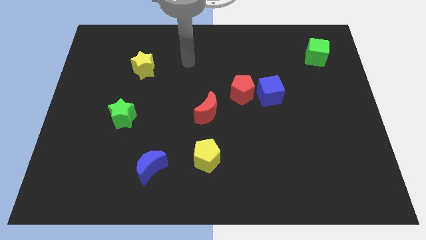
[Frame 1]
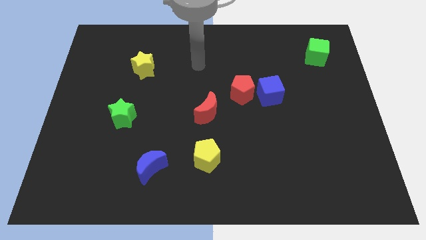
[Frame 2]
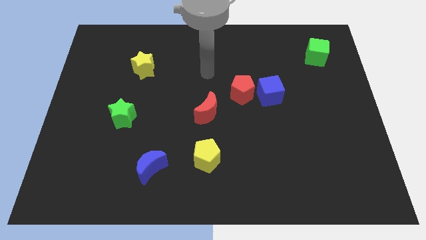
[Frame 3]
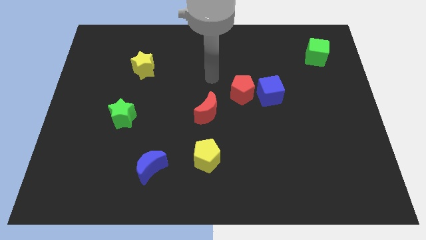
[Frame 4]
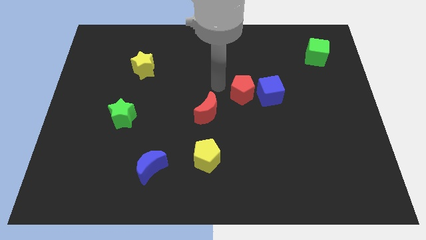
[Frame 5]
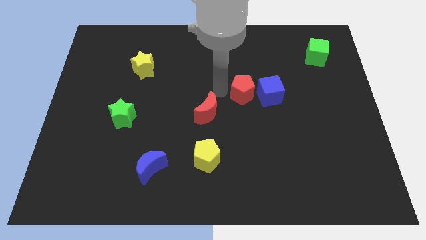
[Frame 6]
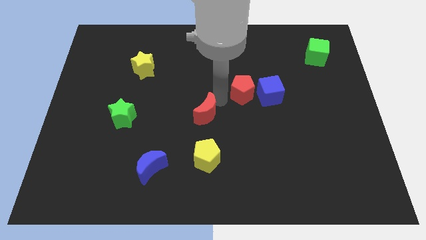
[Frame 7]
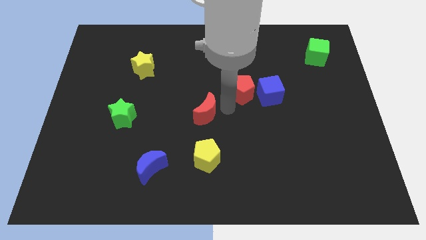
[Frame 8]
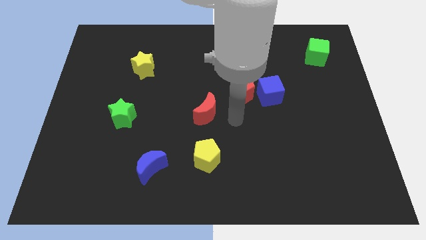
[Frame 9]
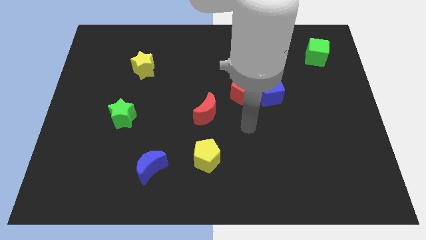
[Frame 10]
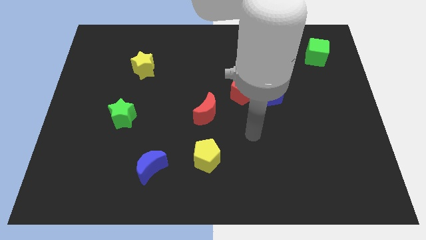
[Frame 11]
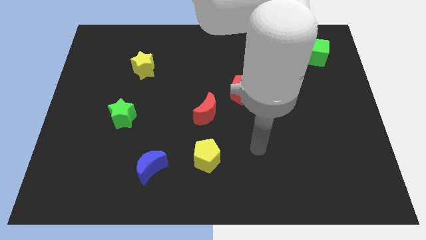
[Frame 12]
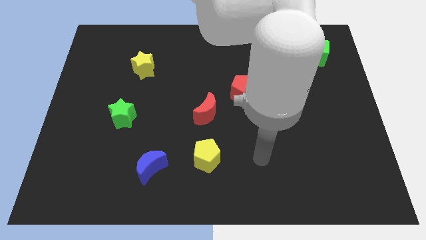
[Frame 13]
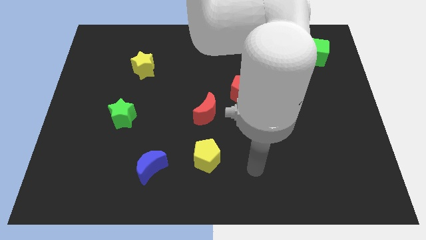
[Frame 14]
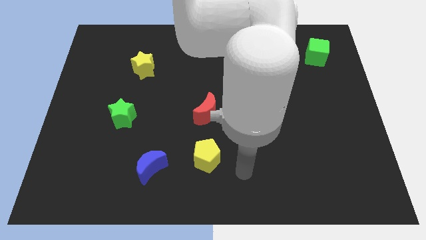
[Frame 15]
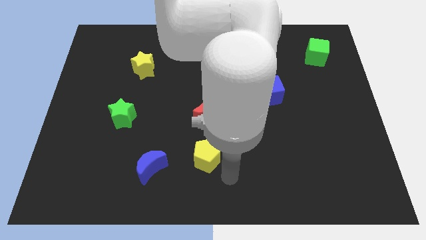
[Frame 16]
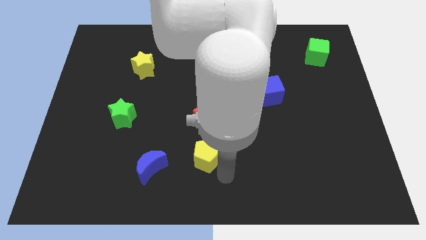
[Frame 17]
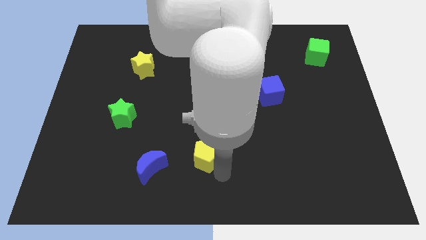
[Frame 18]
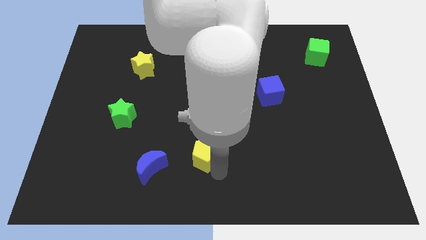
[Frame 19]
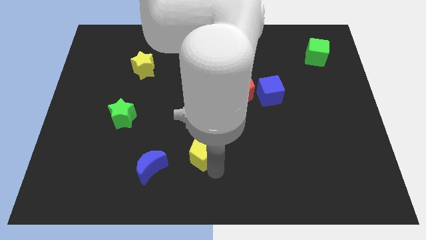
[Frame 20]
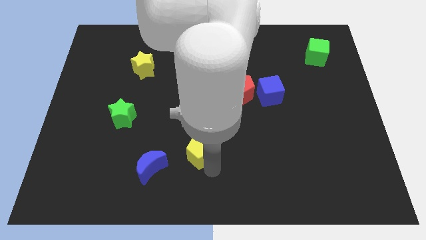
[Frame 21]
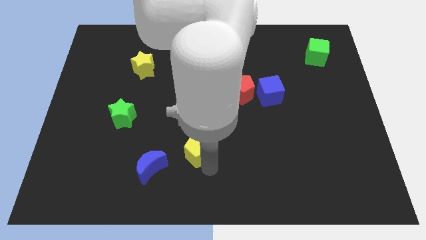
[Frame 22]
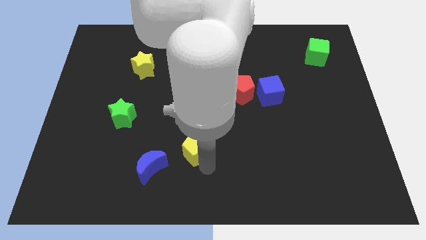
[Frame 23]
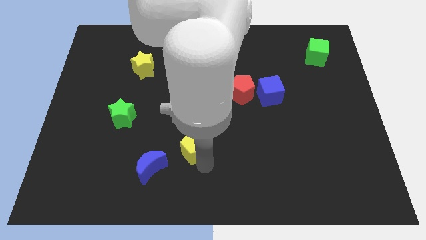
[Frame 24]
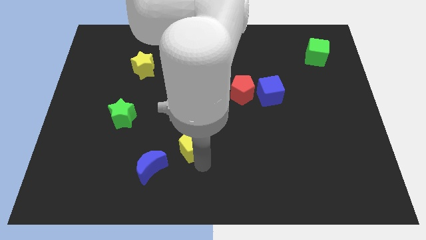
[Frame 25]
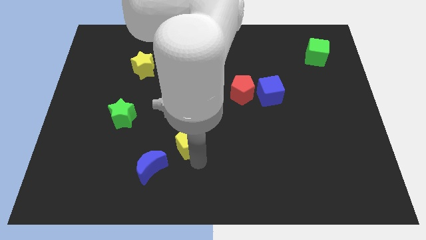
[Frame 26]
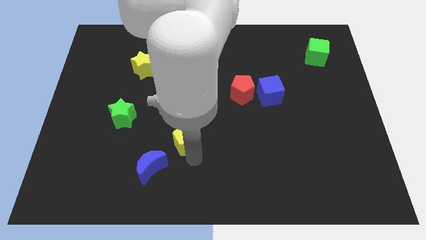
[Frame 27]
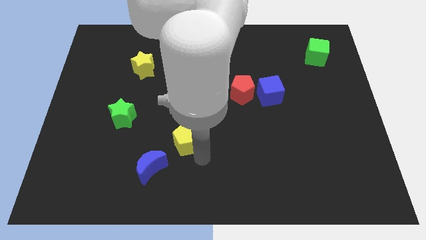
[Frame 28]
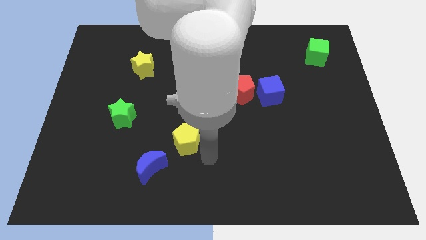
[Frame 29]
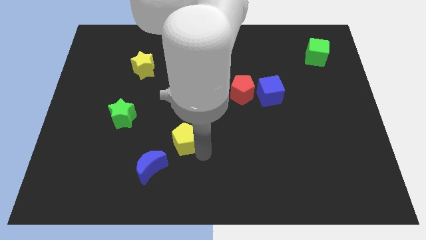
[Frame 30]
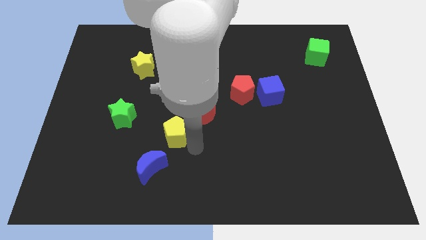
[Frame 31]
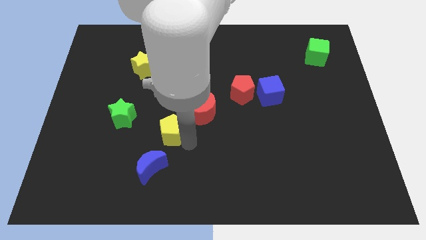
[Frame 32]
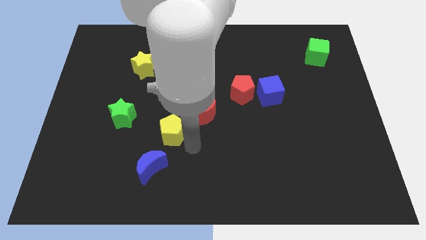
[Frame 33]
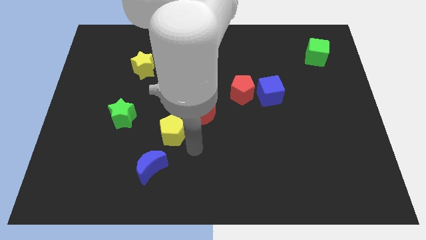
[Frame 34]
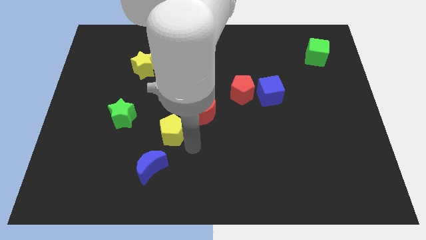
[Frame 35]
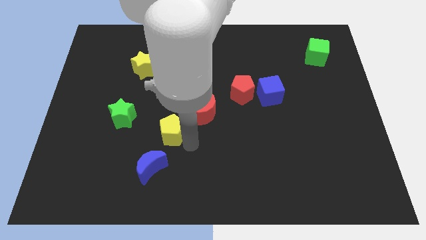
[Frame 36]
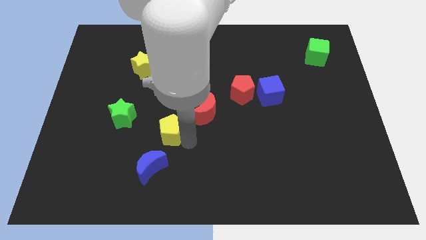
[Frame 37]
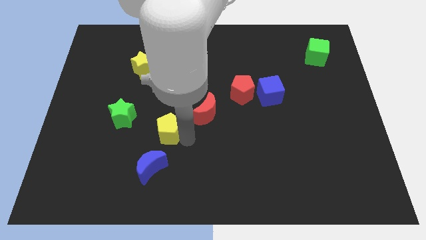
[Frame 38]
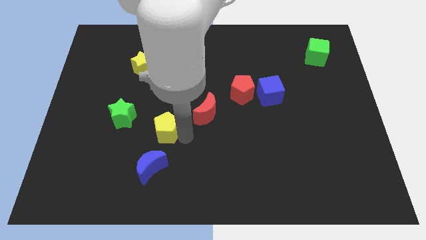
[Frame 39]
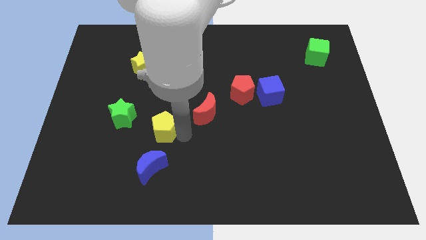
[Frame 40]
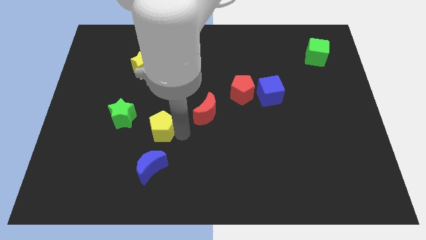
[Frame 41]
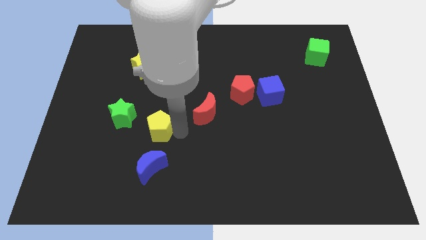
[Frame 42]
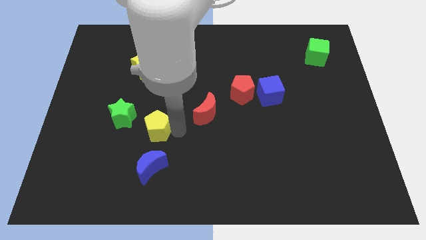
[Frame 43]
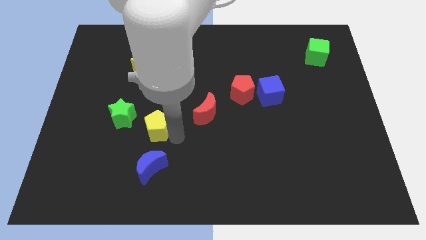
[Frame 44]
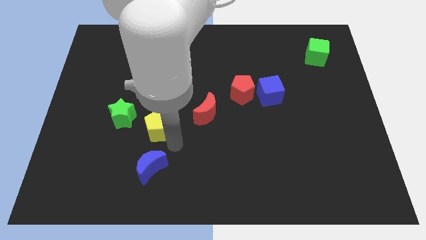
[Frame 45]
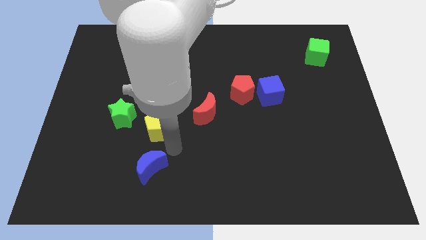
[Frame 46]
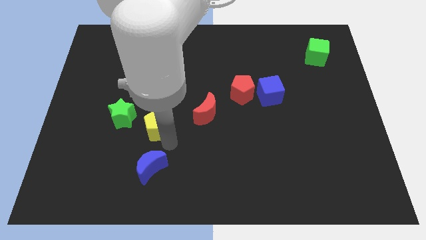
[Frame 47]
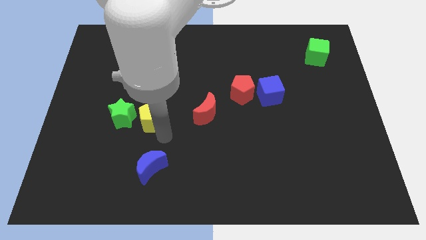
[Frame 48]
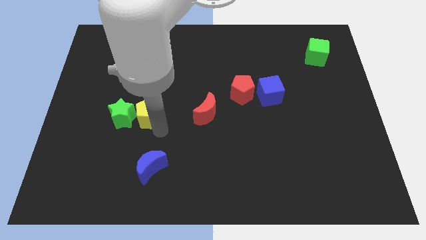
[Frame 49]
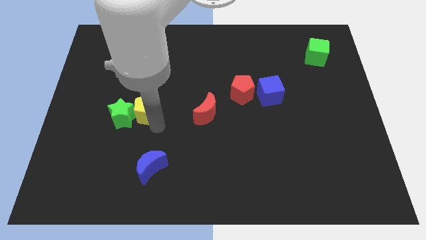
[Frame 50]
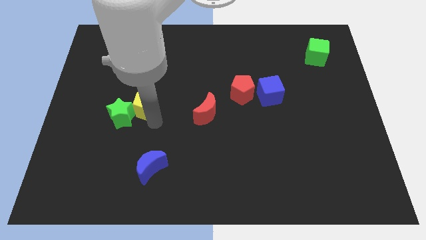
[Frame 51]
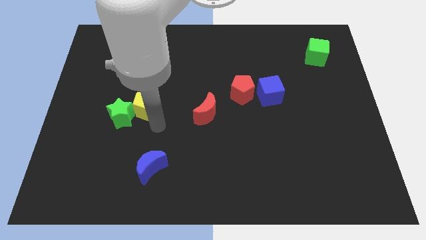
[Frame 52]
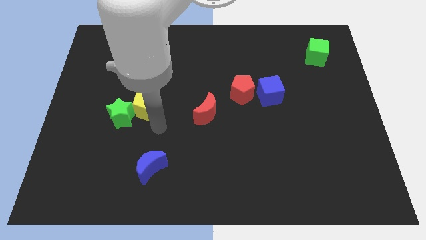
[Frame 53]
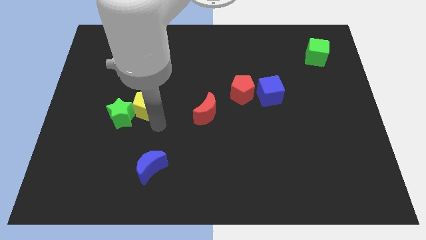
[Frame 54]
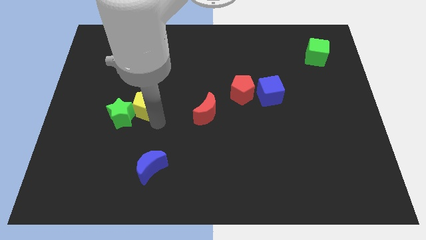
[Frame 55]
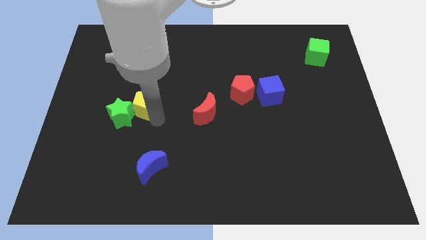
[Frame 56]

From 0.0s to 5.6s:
push the yellow pentagon upwards and left diagonally

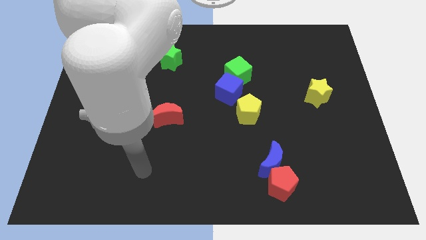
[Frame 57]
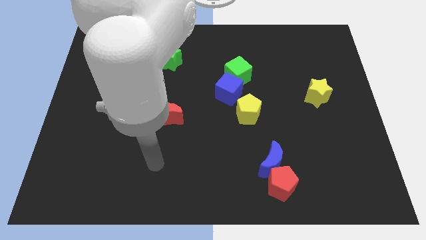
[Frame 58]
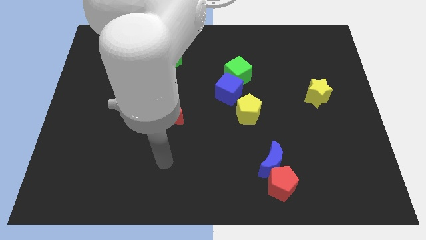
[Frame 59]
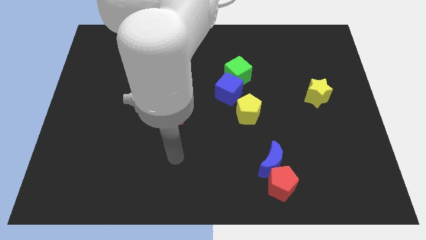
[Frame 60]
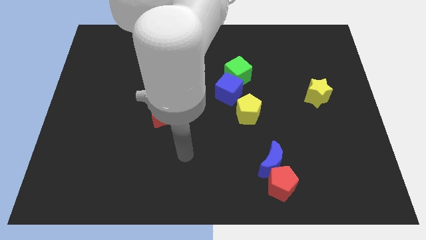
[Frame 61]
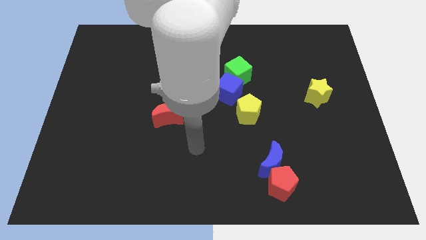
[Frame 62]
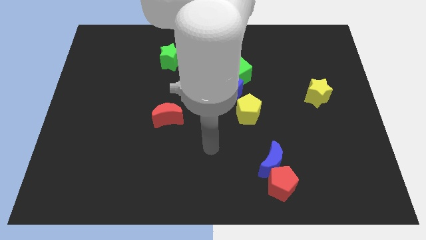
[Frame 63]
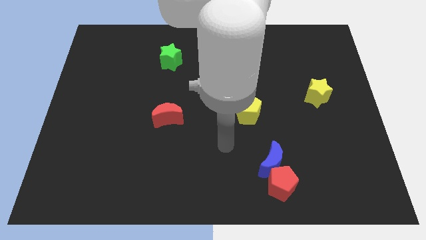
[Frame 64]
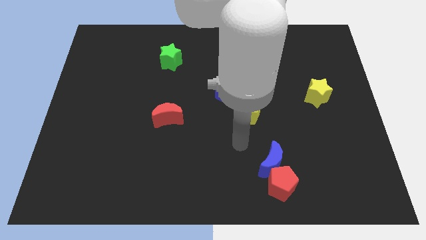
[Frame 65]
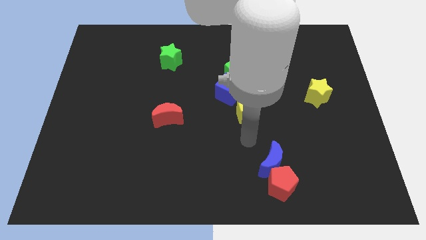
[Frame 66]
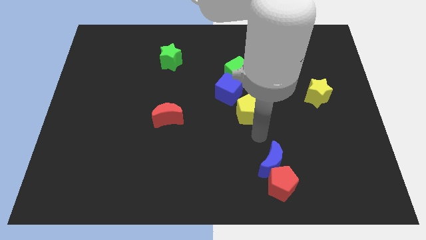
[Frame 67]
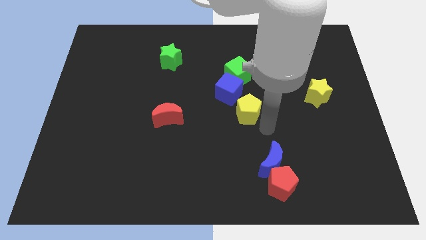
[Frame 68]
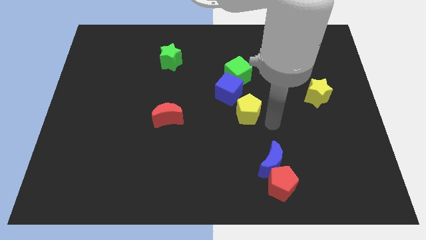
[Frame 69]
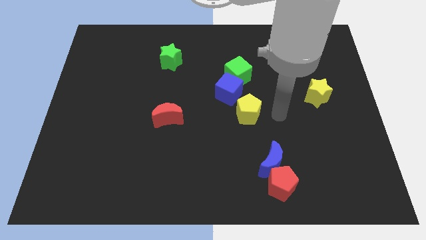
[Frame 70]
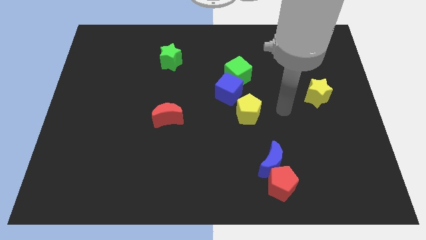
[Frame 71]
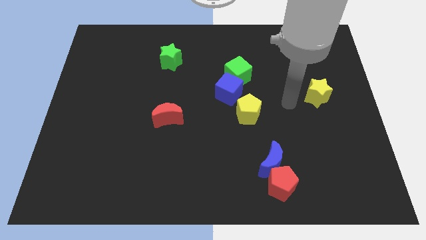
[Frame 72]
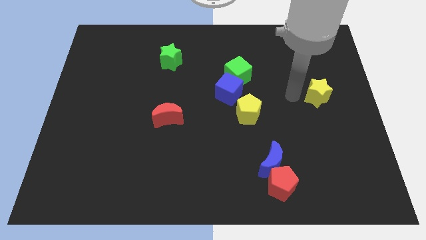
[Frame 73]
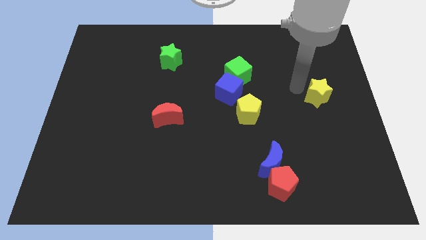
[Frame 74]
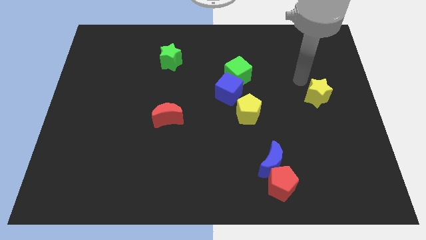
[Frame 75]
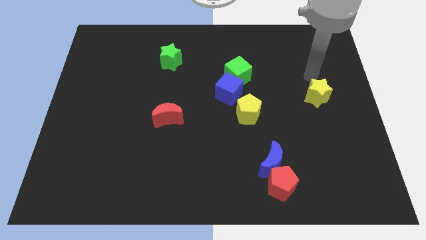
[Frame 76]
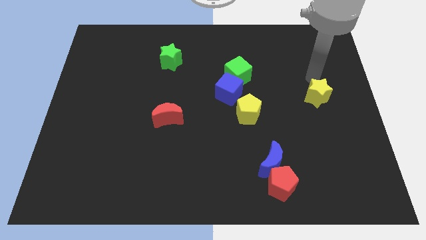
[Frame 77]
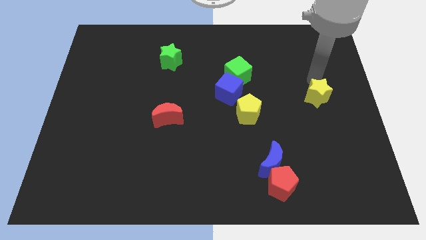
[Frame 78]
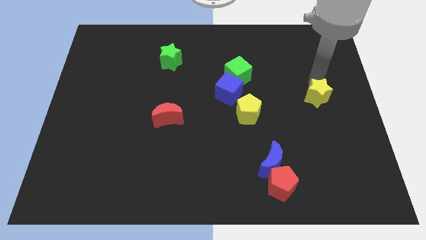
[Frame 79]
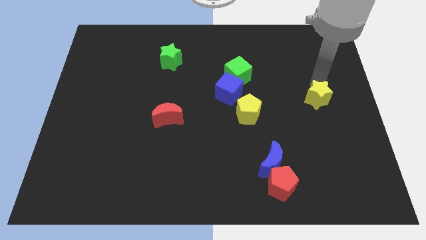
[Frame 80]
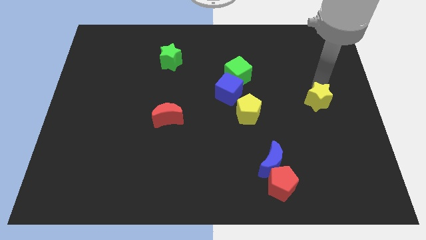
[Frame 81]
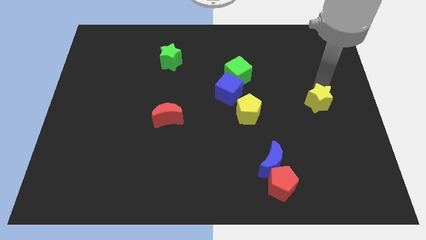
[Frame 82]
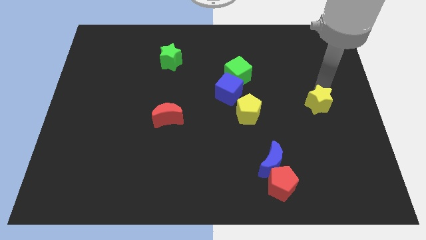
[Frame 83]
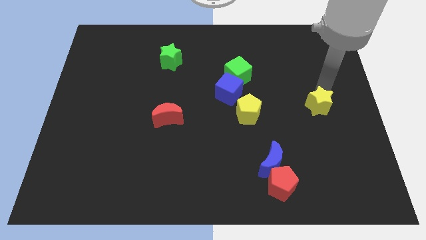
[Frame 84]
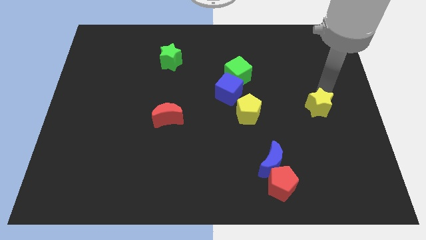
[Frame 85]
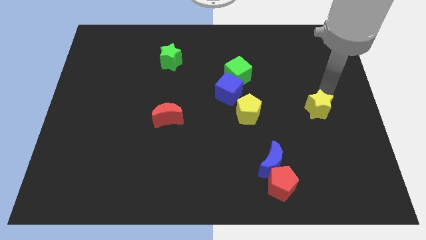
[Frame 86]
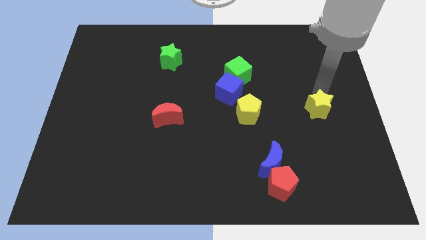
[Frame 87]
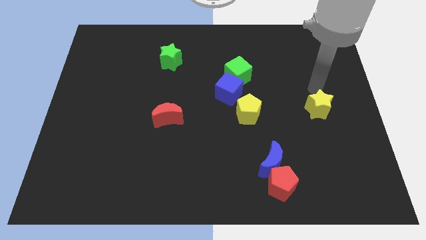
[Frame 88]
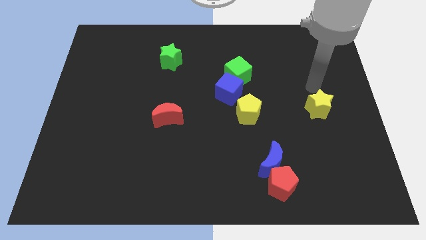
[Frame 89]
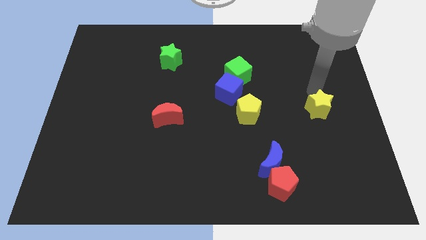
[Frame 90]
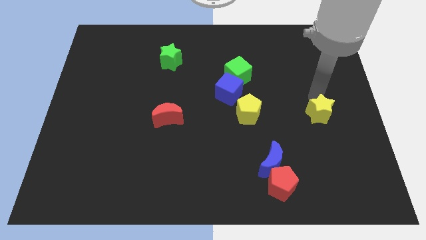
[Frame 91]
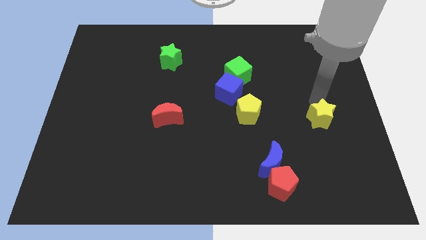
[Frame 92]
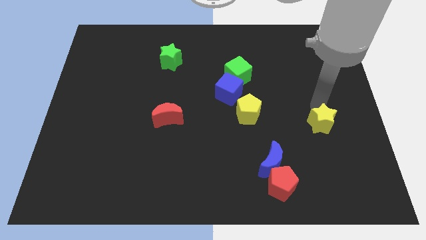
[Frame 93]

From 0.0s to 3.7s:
slide the yellow star down somewhat
